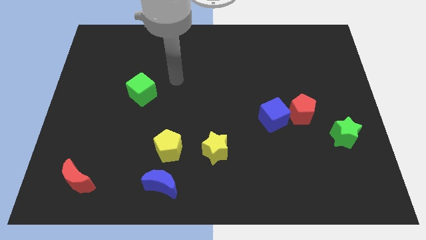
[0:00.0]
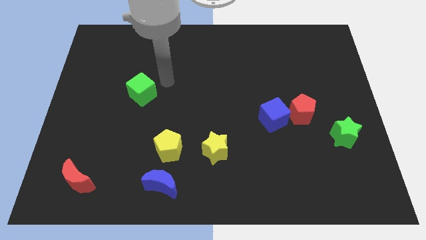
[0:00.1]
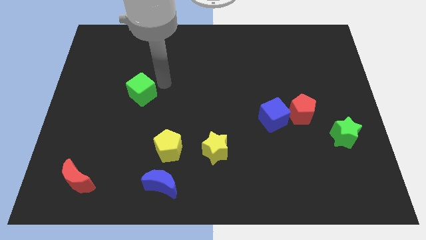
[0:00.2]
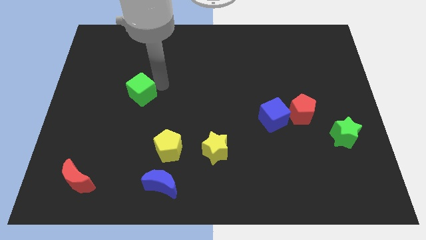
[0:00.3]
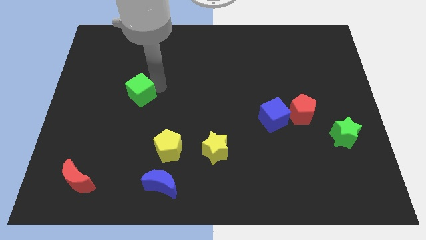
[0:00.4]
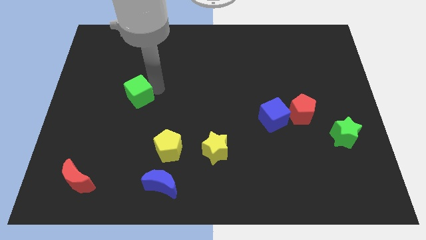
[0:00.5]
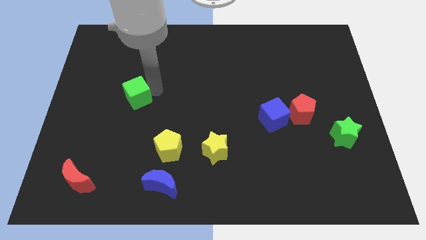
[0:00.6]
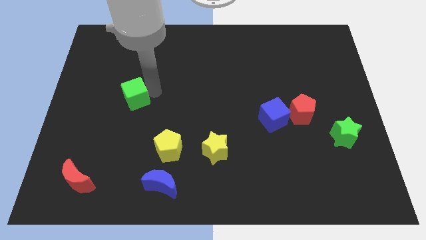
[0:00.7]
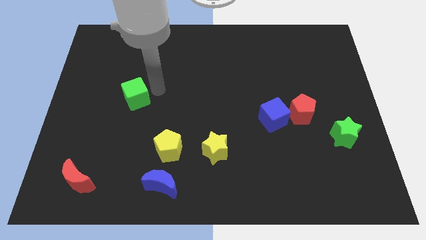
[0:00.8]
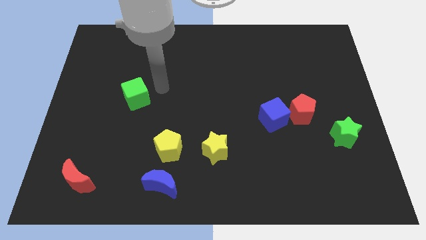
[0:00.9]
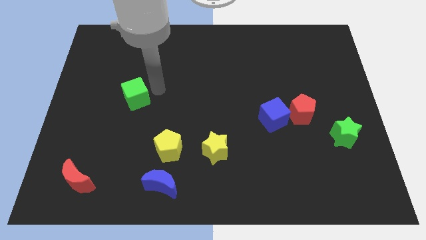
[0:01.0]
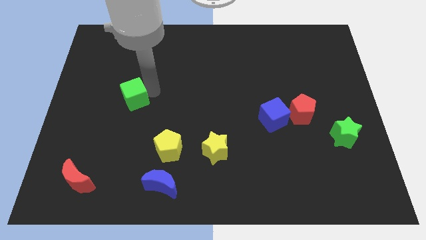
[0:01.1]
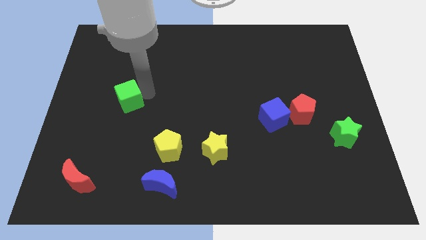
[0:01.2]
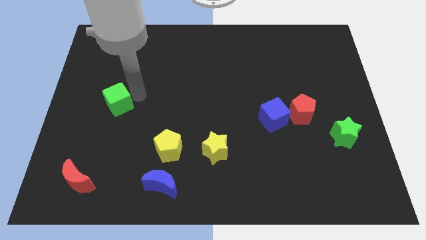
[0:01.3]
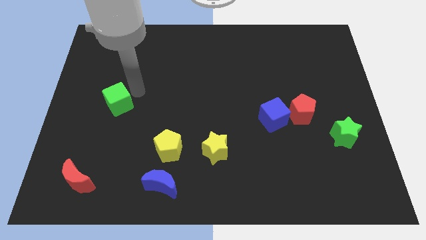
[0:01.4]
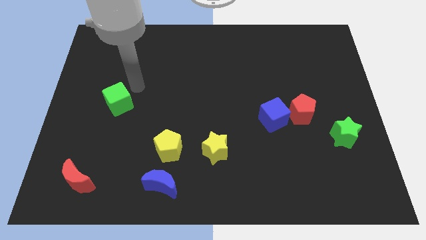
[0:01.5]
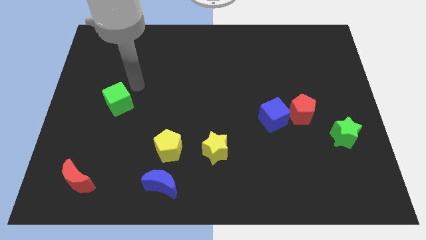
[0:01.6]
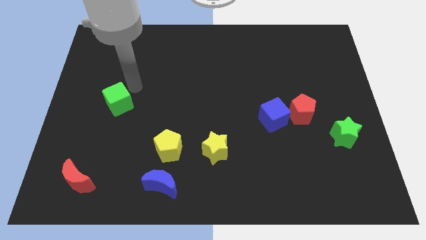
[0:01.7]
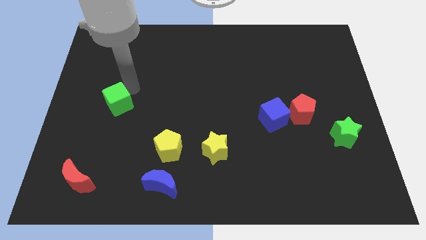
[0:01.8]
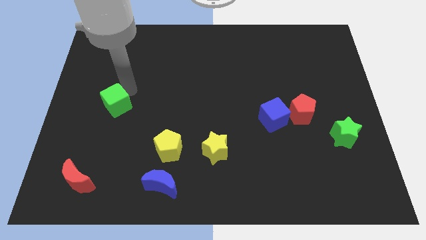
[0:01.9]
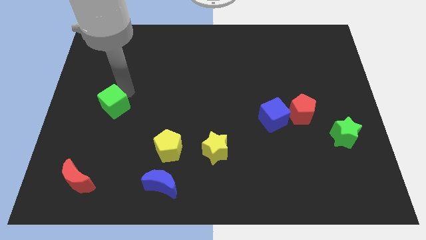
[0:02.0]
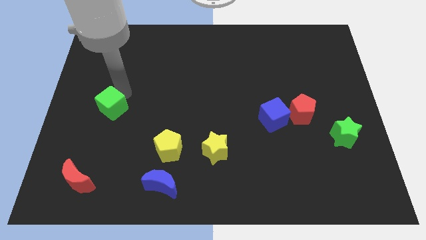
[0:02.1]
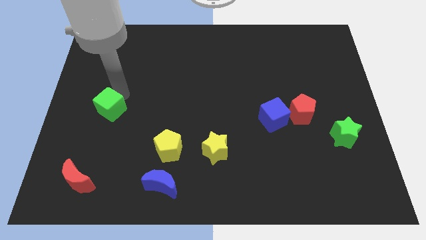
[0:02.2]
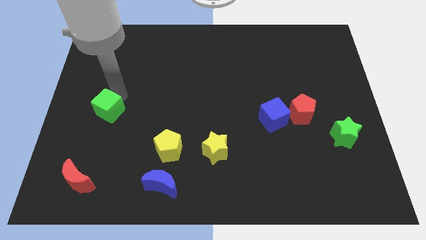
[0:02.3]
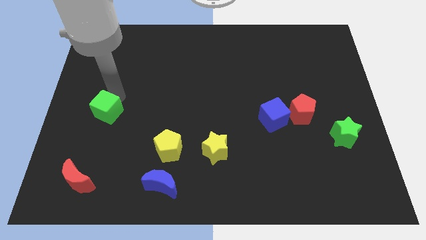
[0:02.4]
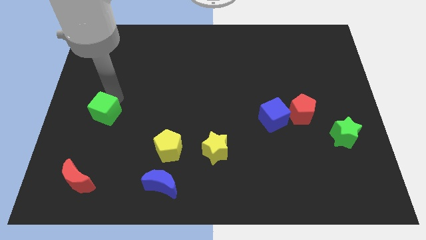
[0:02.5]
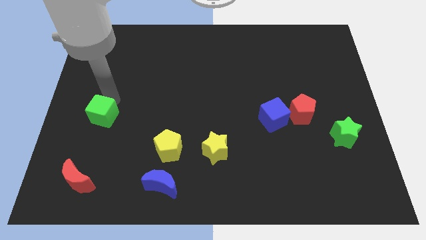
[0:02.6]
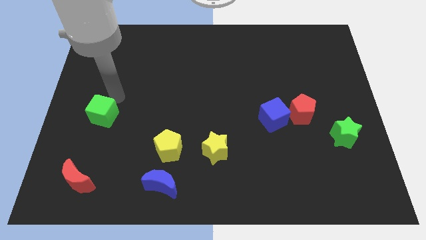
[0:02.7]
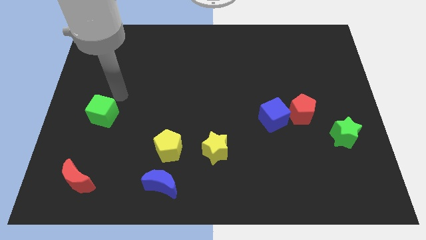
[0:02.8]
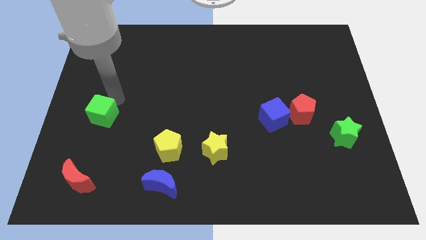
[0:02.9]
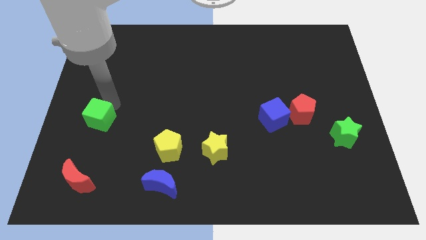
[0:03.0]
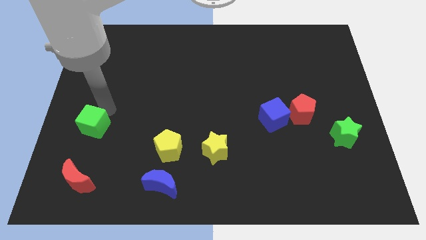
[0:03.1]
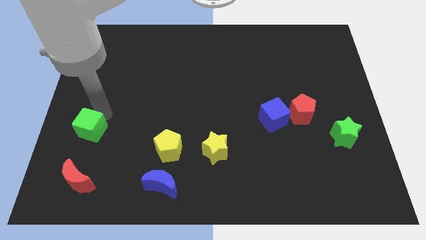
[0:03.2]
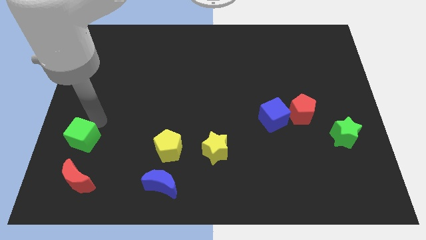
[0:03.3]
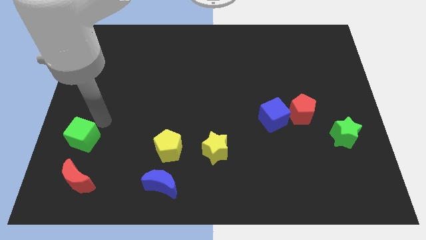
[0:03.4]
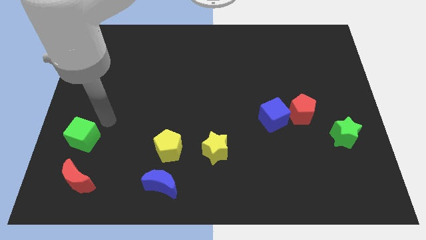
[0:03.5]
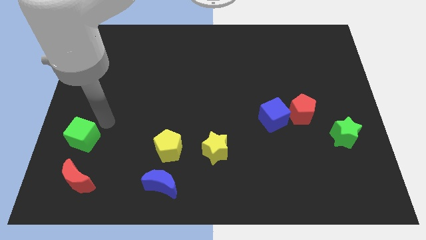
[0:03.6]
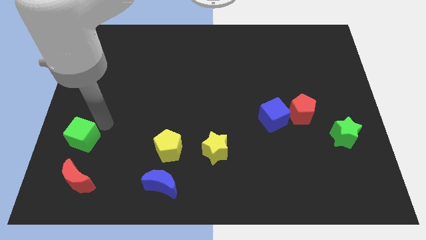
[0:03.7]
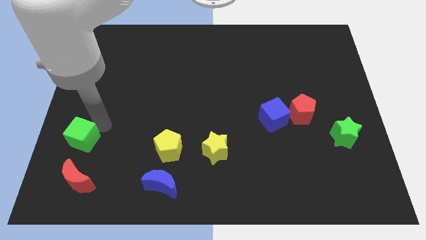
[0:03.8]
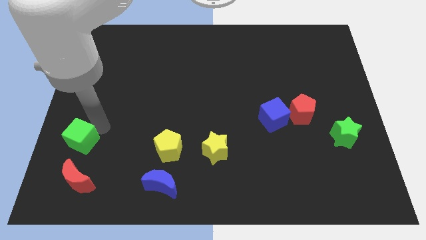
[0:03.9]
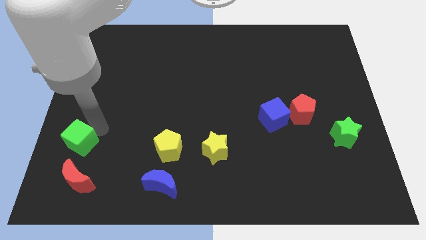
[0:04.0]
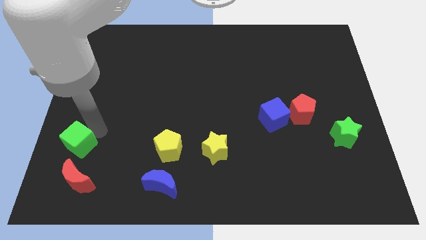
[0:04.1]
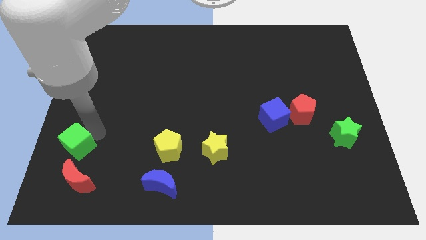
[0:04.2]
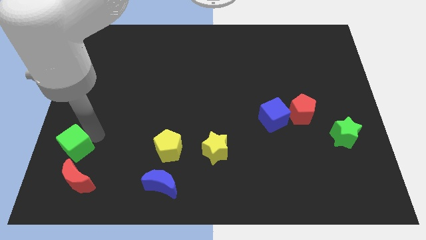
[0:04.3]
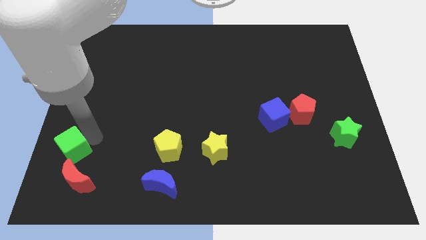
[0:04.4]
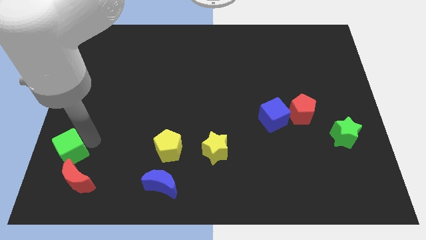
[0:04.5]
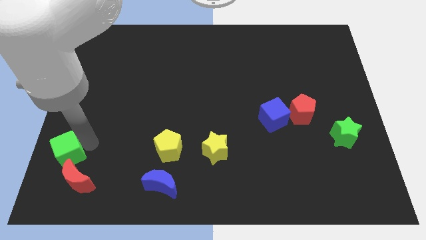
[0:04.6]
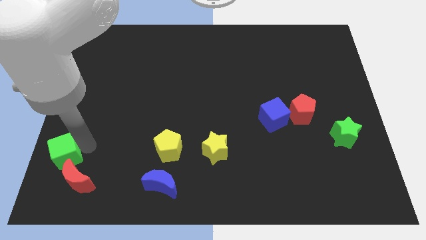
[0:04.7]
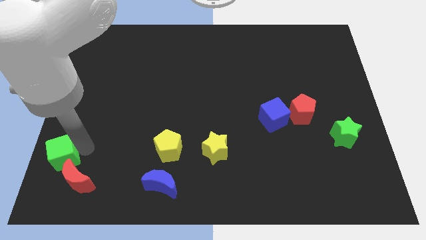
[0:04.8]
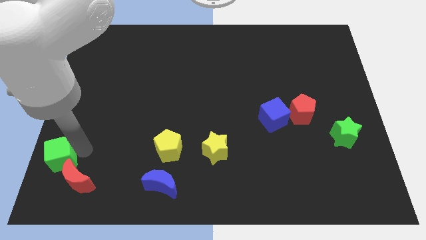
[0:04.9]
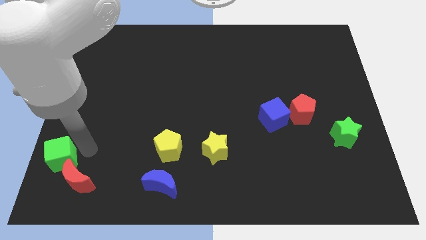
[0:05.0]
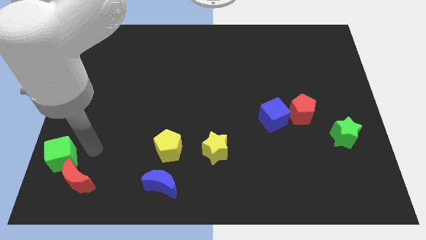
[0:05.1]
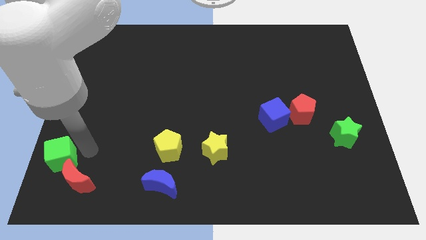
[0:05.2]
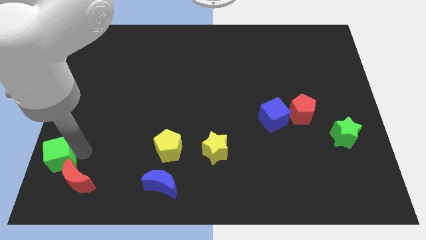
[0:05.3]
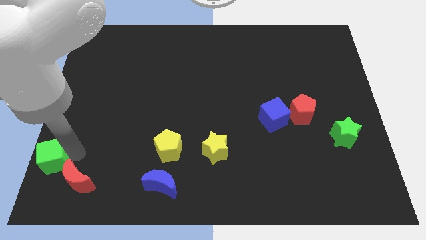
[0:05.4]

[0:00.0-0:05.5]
push the green cube to the bottom left corner

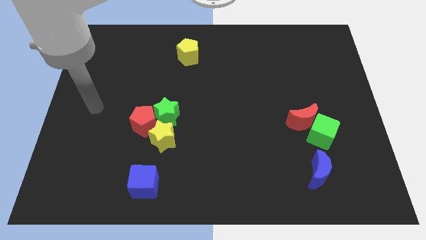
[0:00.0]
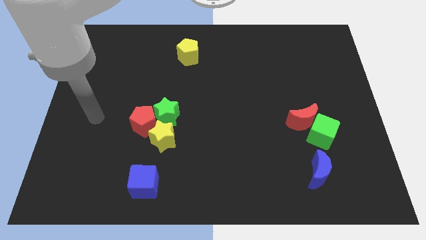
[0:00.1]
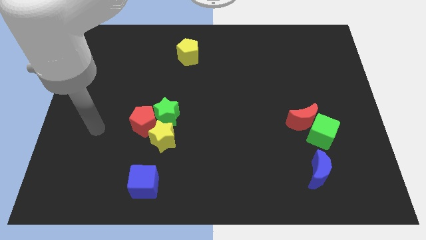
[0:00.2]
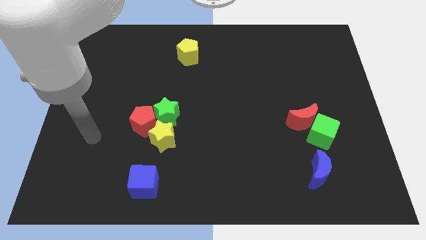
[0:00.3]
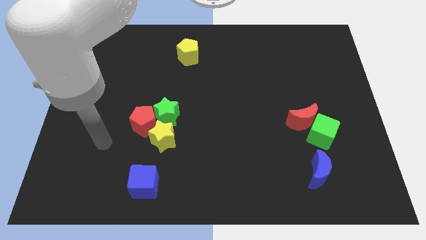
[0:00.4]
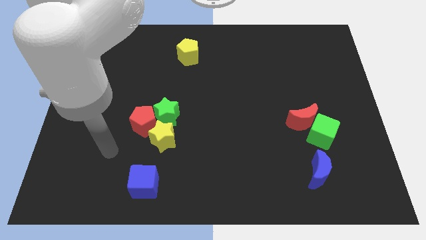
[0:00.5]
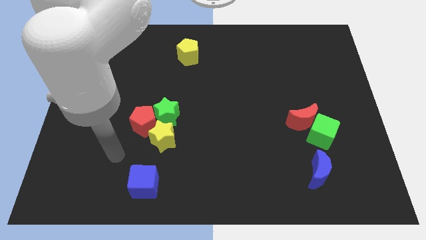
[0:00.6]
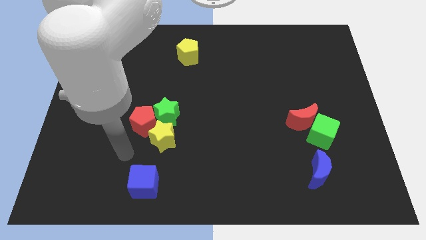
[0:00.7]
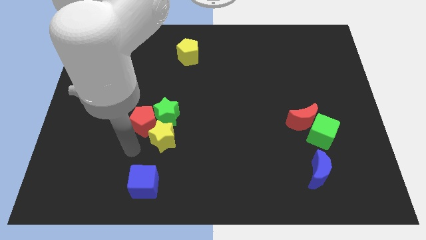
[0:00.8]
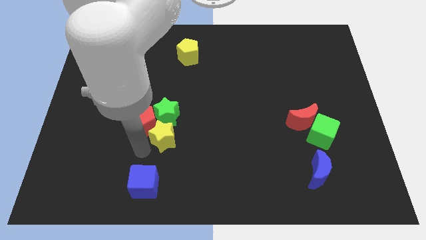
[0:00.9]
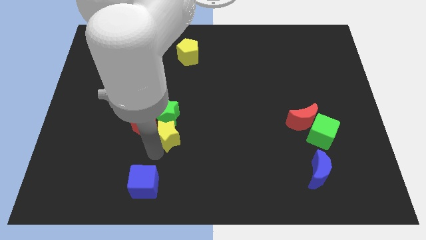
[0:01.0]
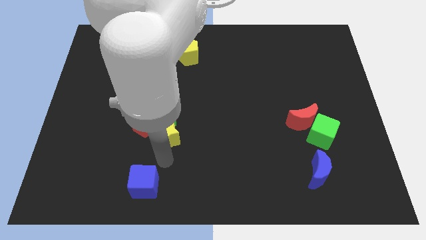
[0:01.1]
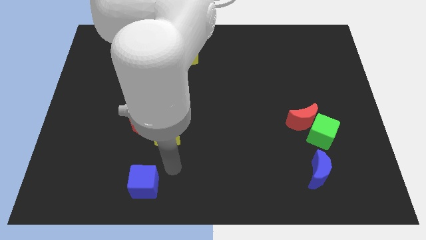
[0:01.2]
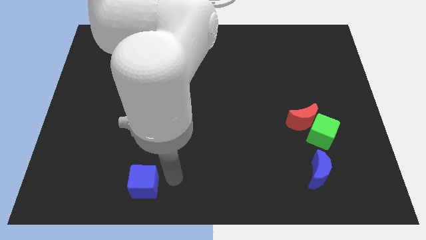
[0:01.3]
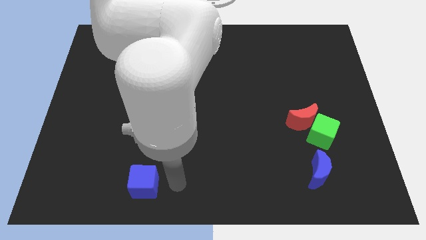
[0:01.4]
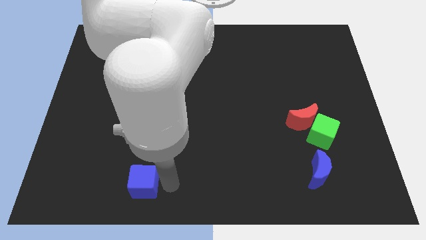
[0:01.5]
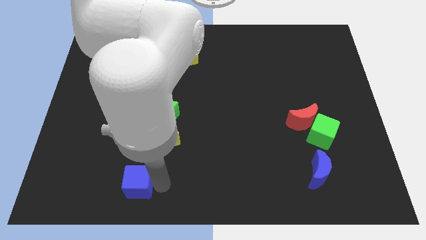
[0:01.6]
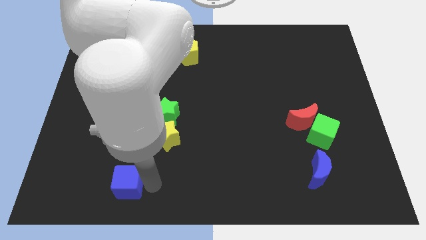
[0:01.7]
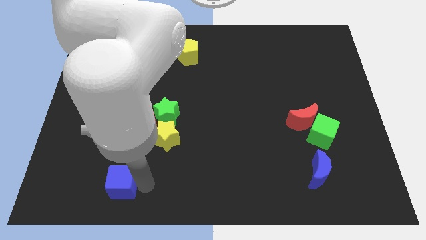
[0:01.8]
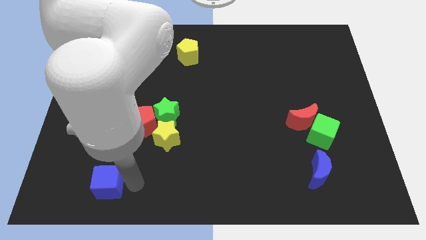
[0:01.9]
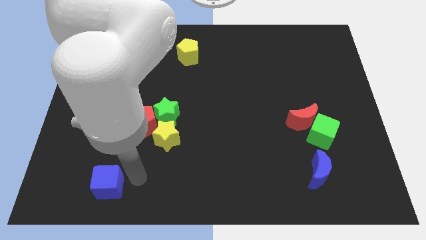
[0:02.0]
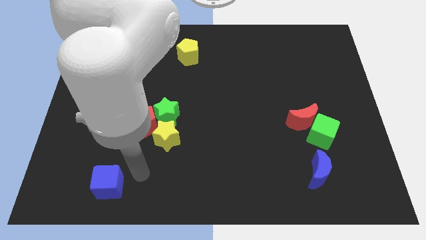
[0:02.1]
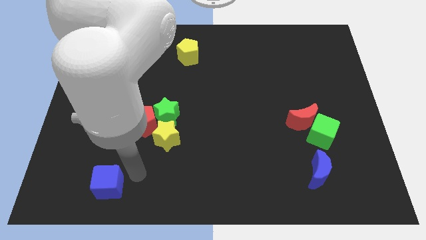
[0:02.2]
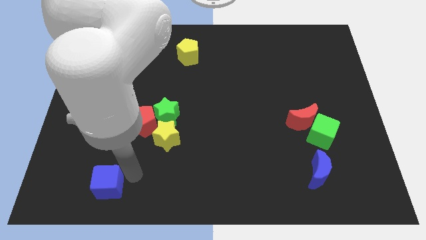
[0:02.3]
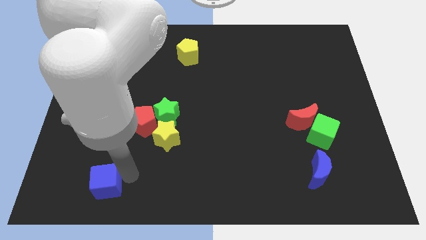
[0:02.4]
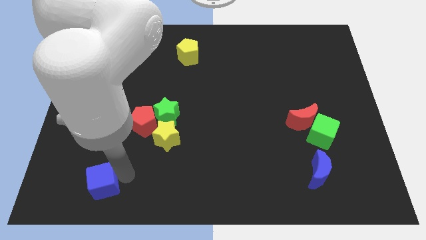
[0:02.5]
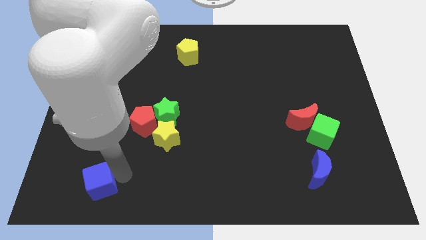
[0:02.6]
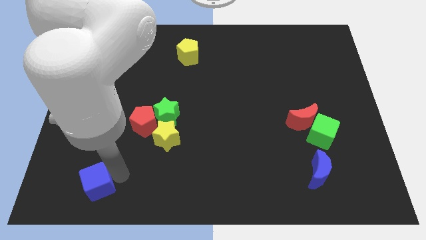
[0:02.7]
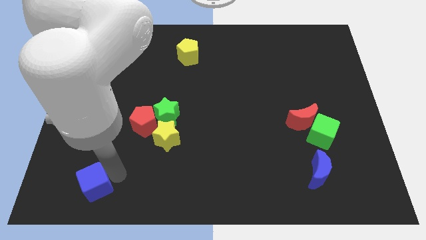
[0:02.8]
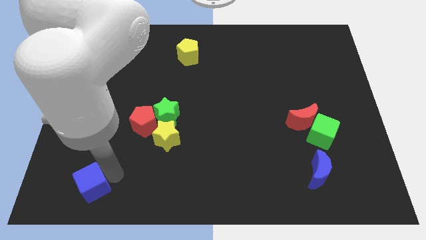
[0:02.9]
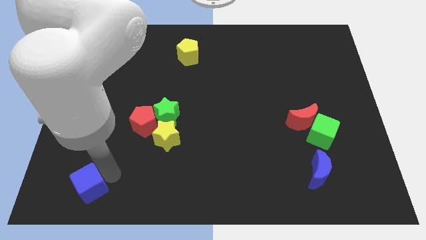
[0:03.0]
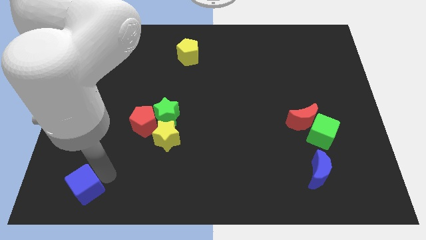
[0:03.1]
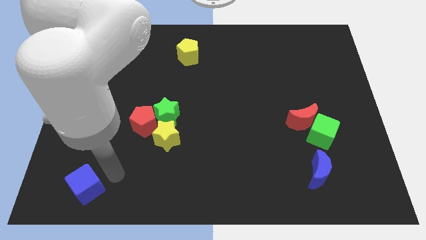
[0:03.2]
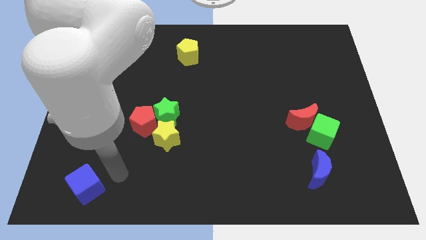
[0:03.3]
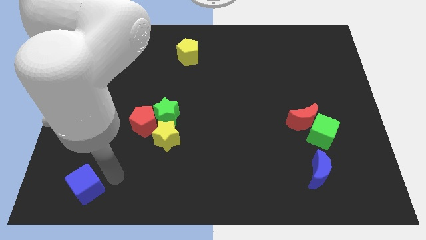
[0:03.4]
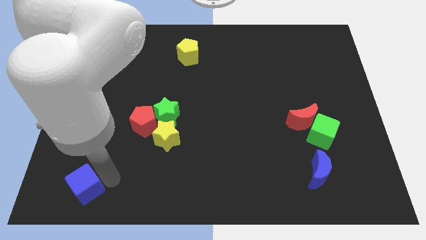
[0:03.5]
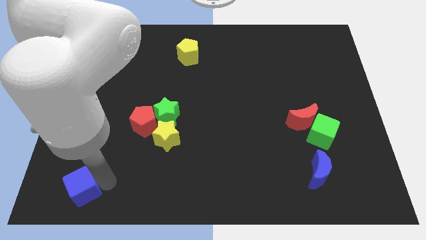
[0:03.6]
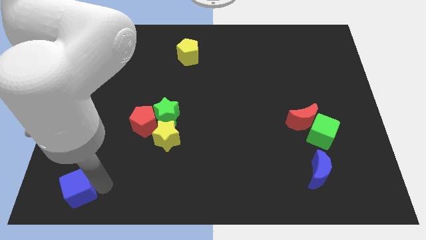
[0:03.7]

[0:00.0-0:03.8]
push the blue cube to the bottom left
